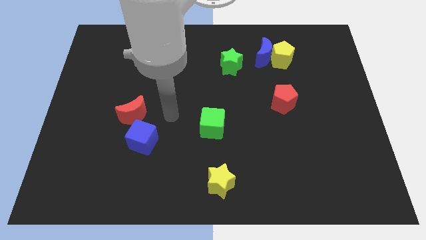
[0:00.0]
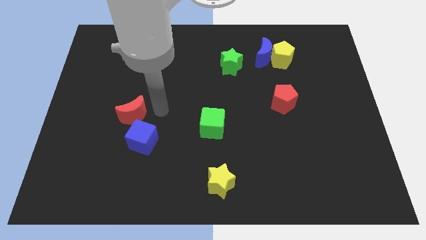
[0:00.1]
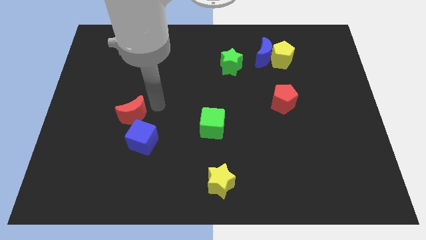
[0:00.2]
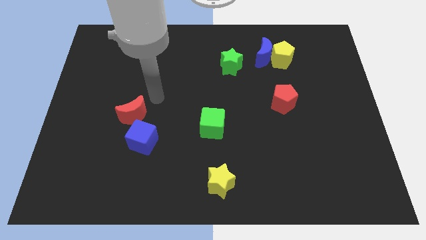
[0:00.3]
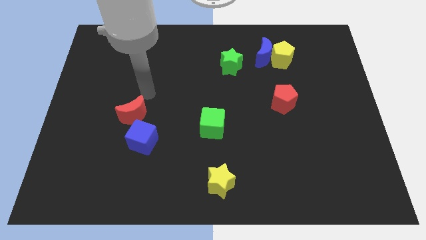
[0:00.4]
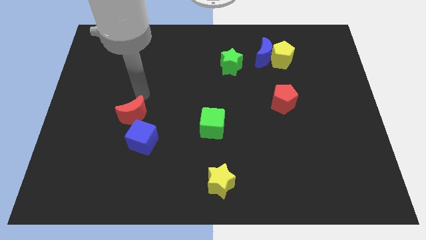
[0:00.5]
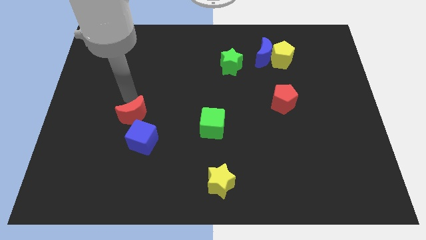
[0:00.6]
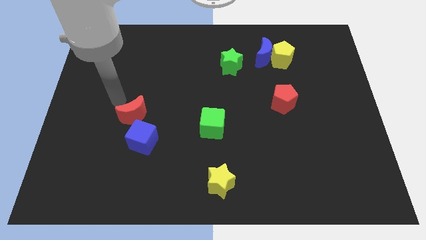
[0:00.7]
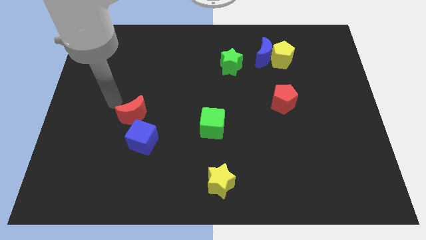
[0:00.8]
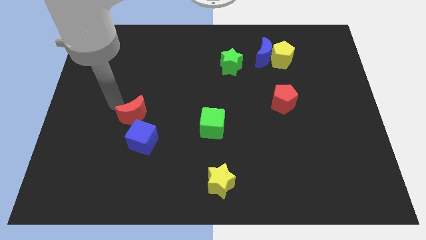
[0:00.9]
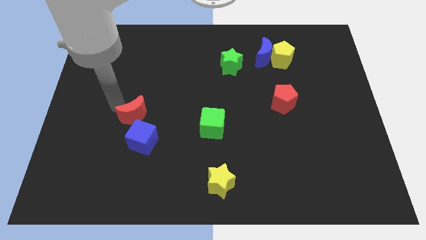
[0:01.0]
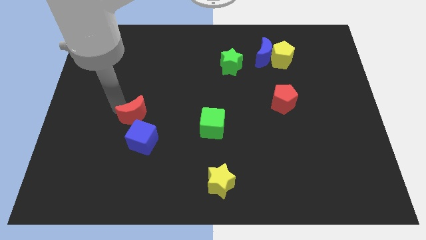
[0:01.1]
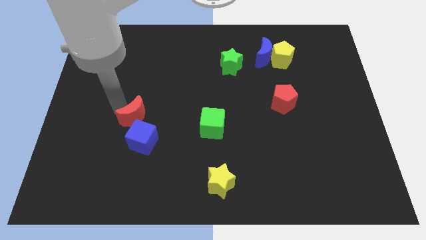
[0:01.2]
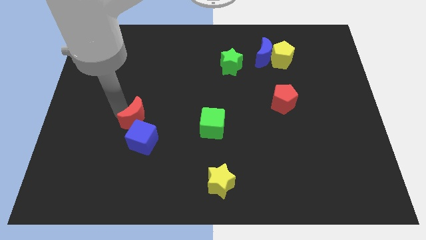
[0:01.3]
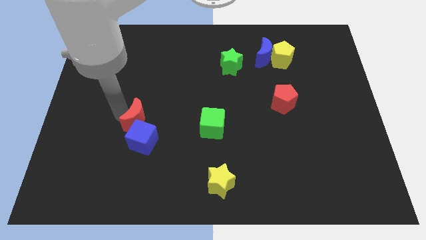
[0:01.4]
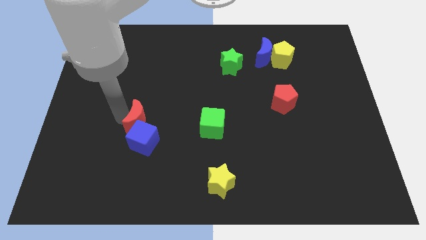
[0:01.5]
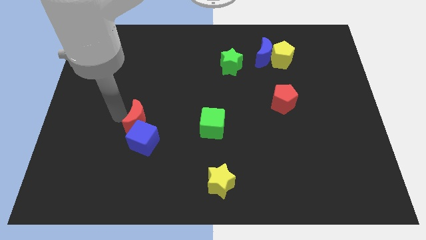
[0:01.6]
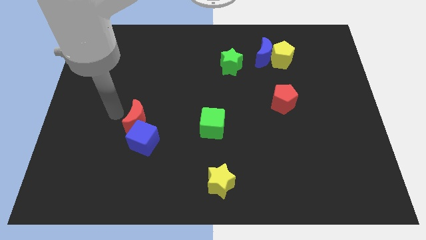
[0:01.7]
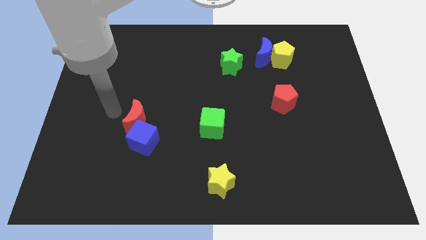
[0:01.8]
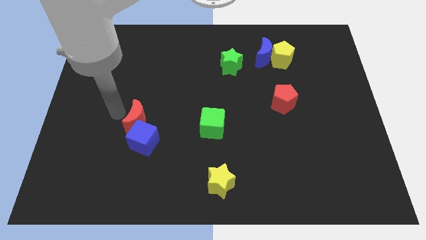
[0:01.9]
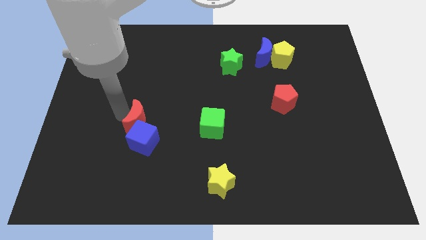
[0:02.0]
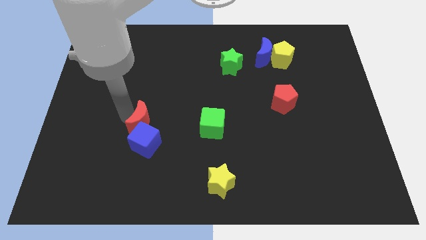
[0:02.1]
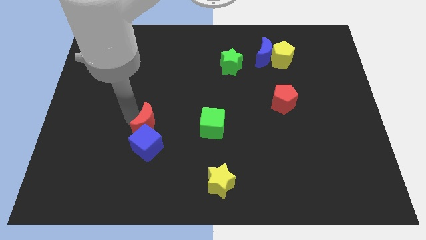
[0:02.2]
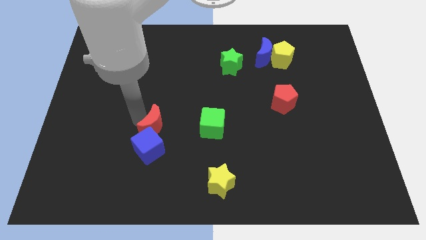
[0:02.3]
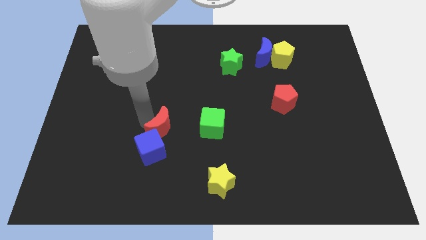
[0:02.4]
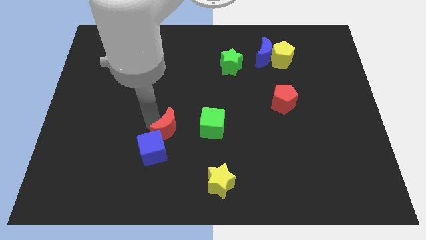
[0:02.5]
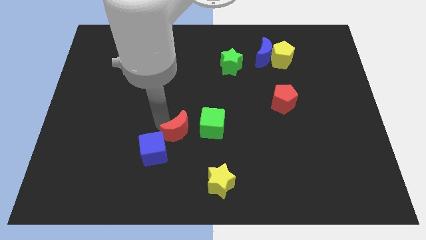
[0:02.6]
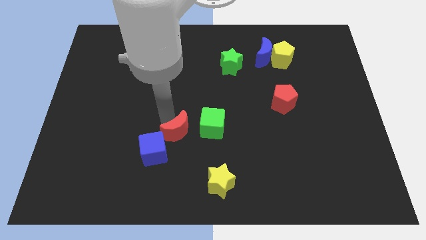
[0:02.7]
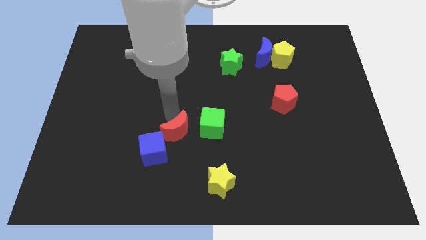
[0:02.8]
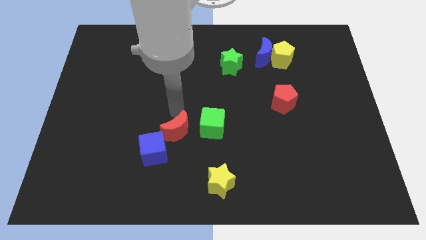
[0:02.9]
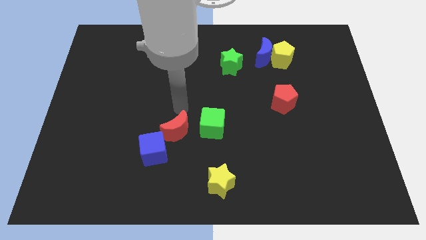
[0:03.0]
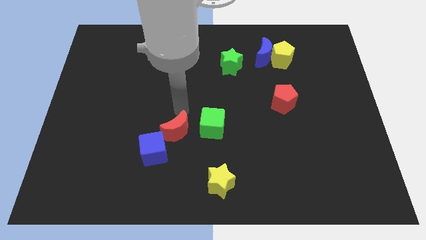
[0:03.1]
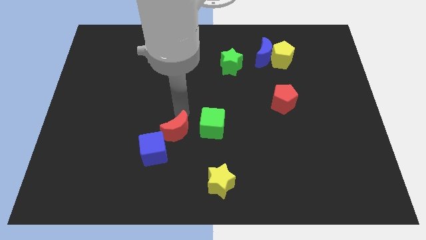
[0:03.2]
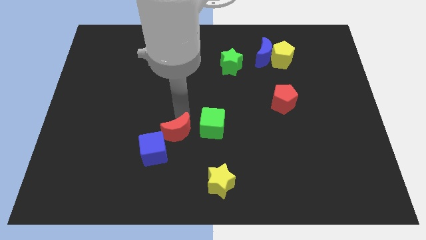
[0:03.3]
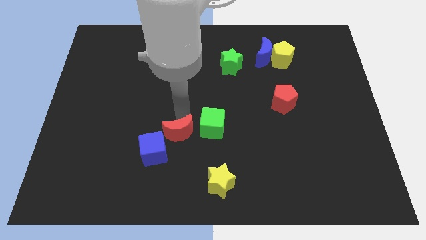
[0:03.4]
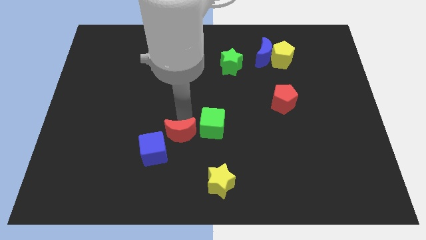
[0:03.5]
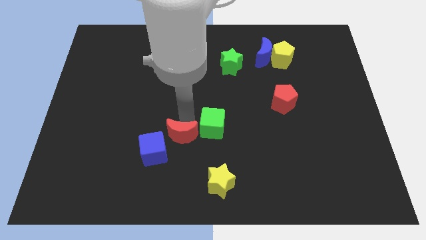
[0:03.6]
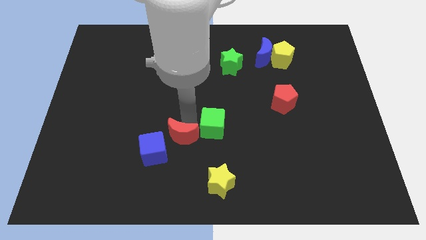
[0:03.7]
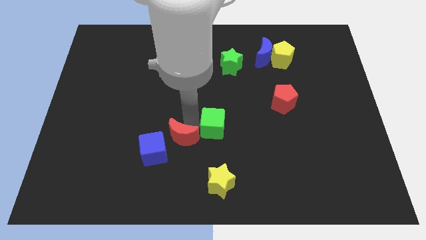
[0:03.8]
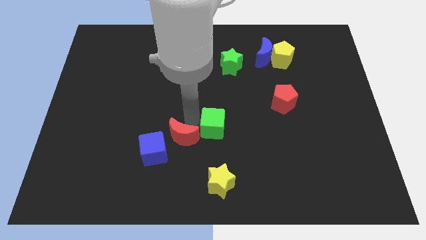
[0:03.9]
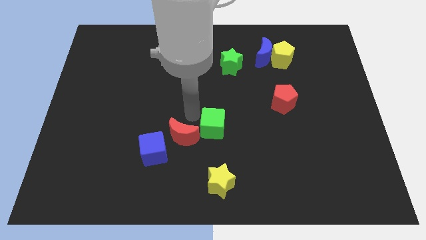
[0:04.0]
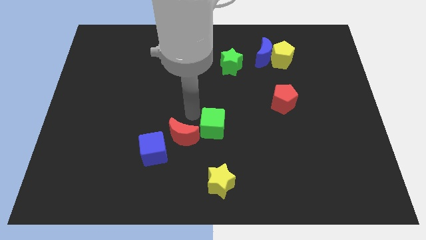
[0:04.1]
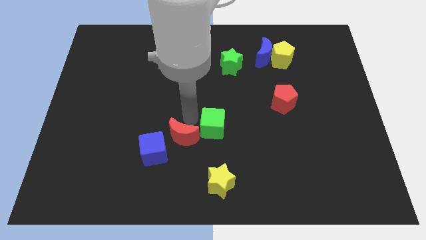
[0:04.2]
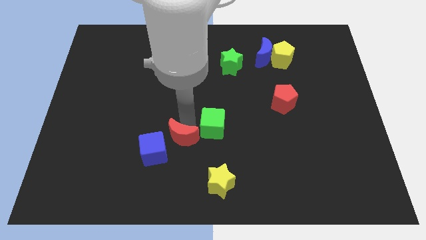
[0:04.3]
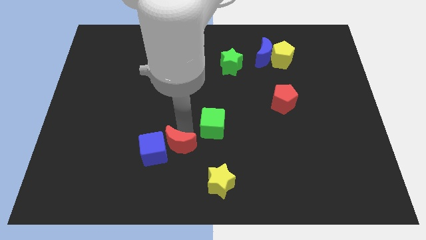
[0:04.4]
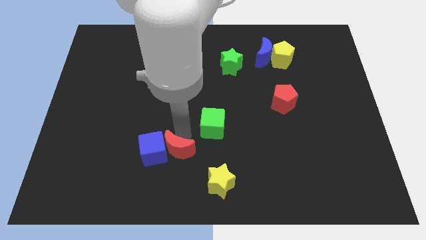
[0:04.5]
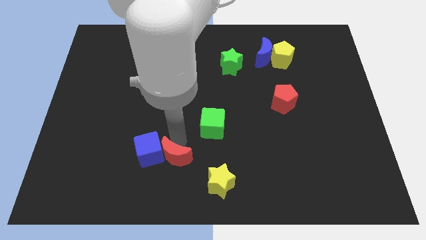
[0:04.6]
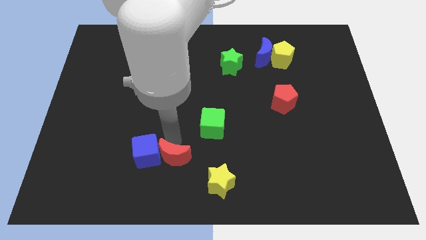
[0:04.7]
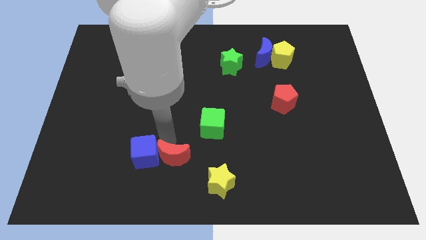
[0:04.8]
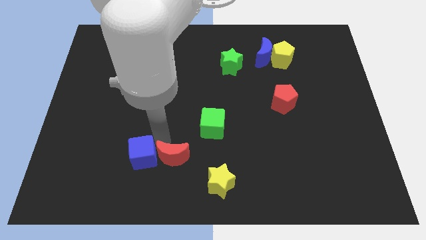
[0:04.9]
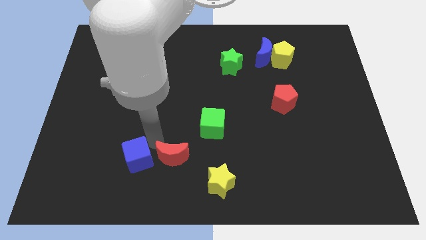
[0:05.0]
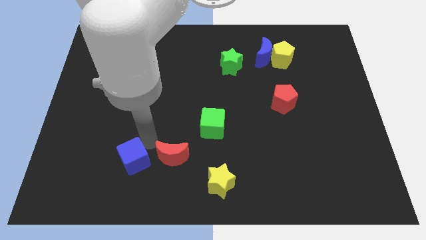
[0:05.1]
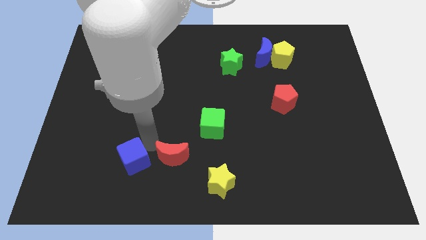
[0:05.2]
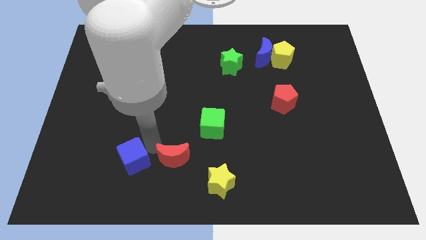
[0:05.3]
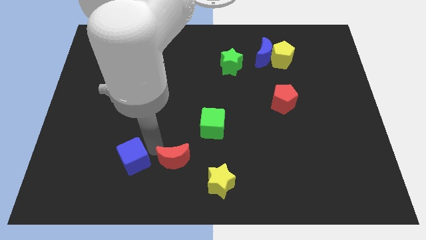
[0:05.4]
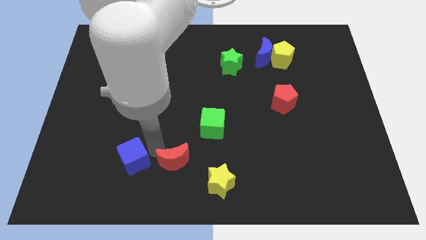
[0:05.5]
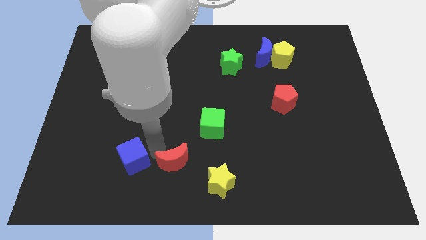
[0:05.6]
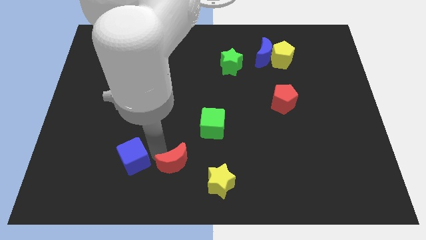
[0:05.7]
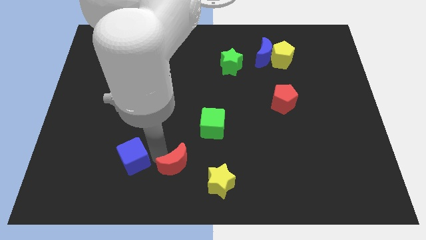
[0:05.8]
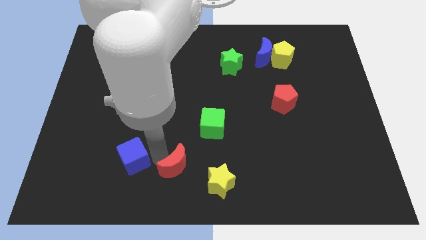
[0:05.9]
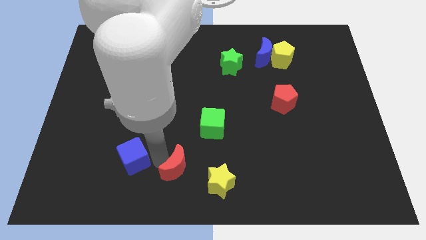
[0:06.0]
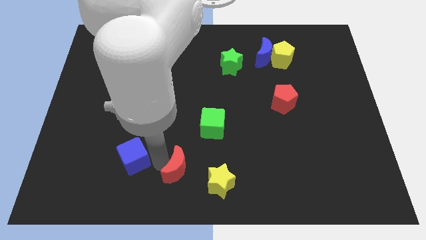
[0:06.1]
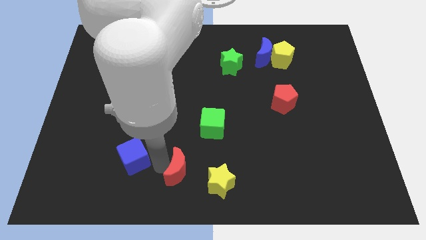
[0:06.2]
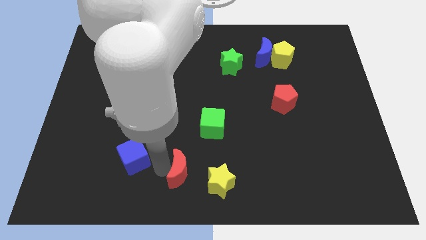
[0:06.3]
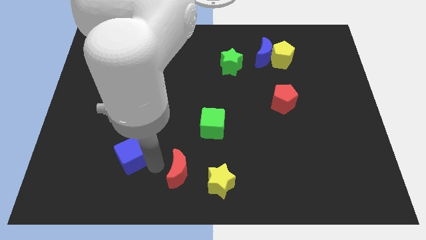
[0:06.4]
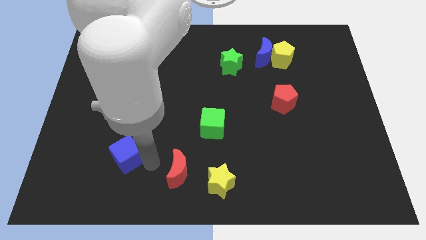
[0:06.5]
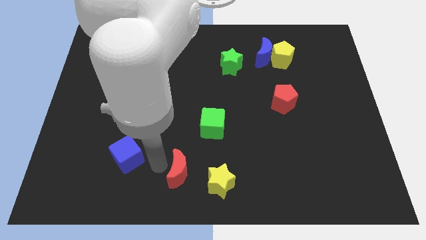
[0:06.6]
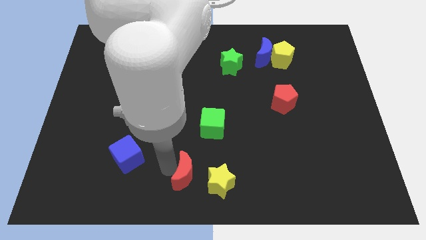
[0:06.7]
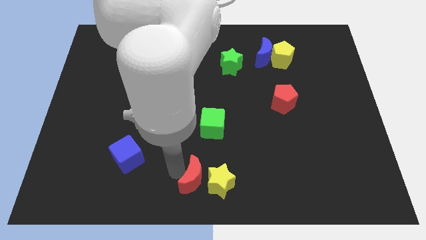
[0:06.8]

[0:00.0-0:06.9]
move the red moon next to the yellow star

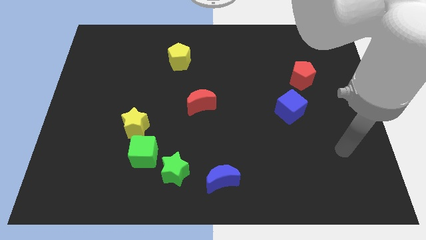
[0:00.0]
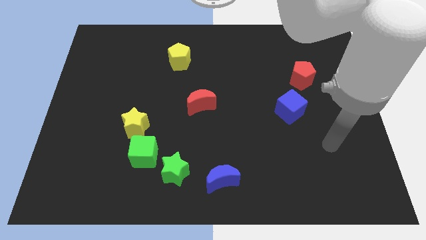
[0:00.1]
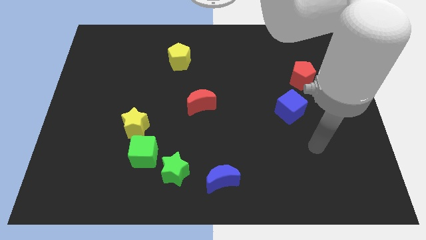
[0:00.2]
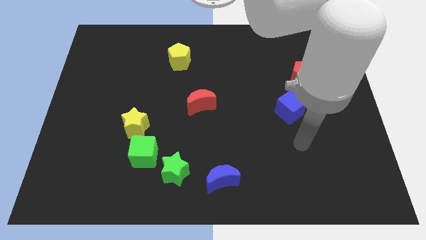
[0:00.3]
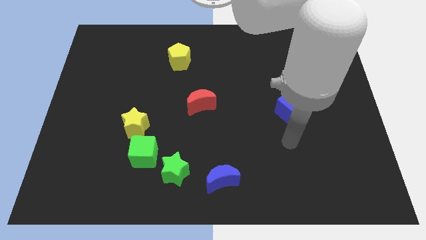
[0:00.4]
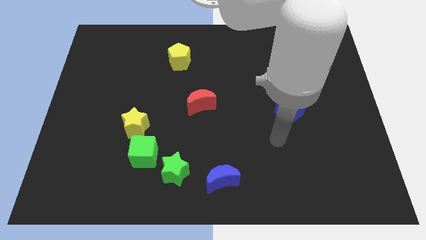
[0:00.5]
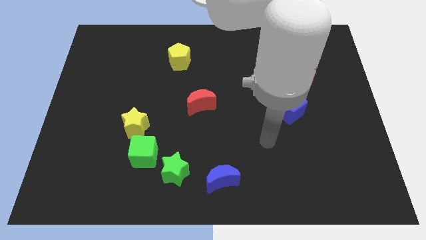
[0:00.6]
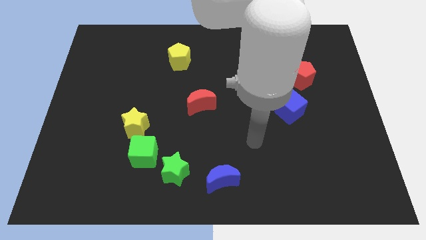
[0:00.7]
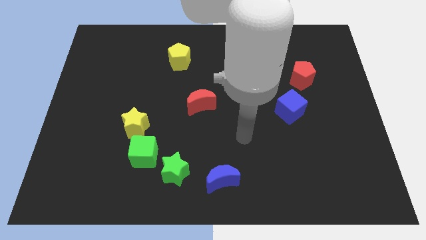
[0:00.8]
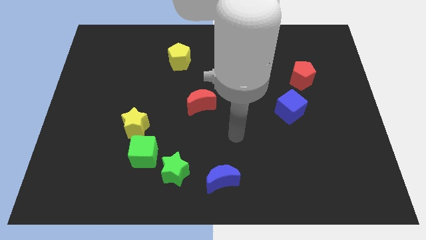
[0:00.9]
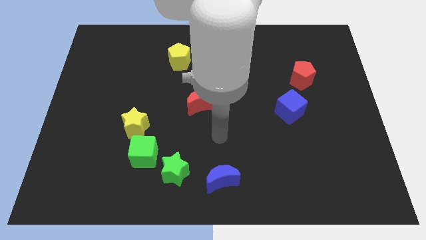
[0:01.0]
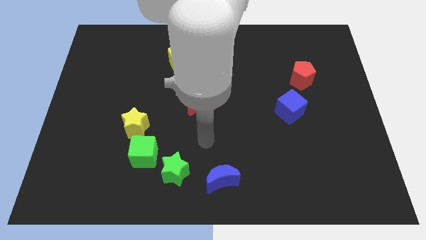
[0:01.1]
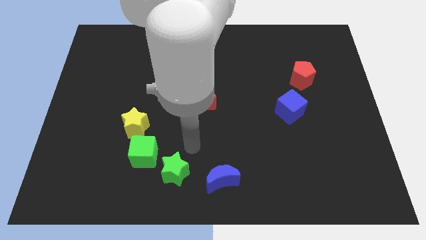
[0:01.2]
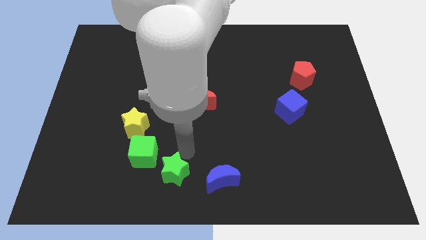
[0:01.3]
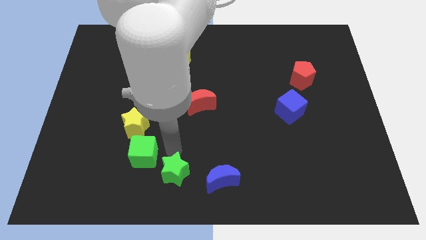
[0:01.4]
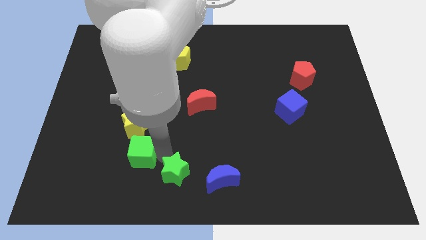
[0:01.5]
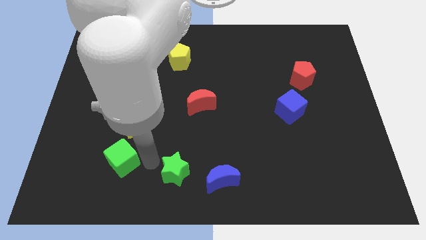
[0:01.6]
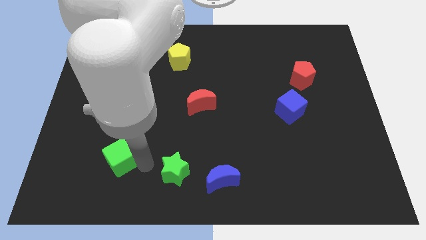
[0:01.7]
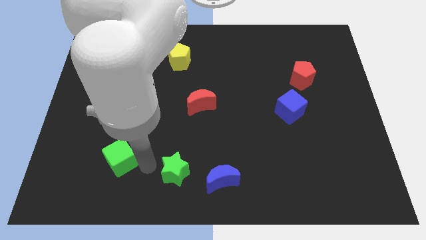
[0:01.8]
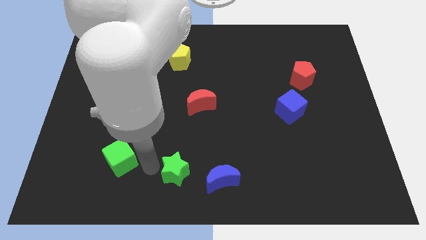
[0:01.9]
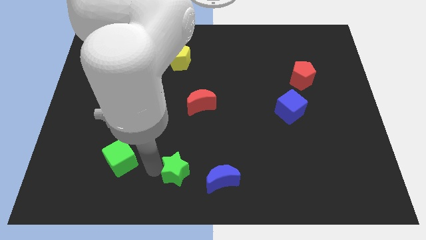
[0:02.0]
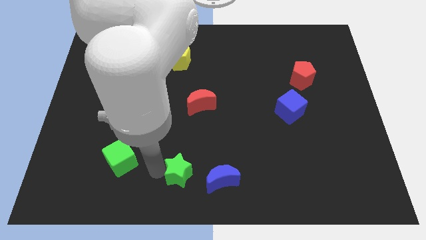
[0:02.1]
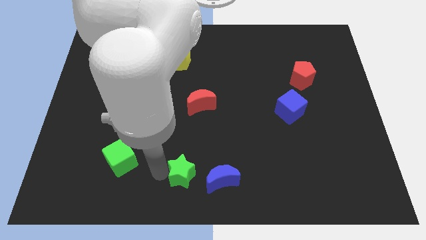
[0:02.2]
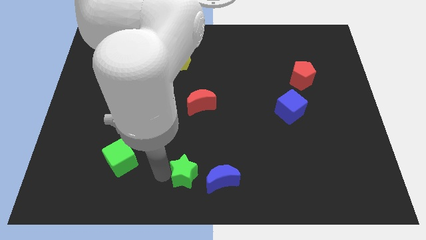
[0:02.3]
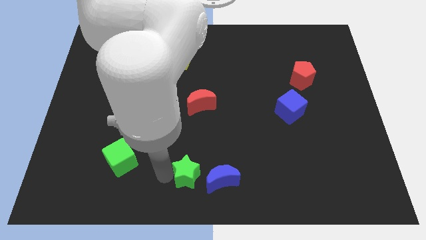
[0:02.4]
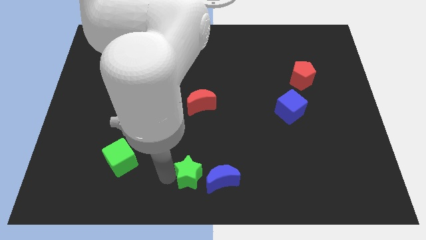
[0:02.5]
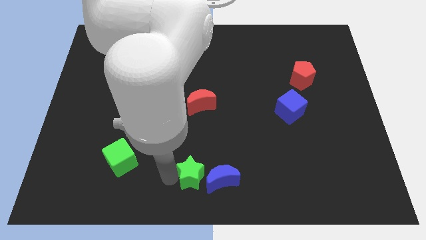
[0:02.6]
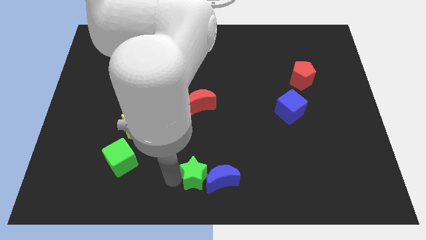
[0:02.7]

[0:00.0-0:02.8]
move the green star close to the blue moon
